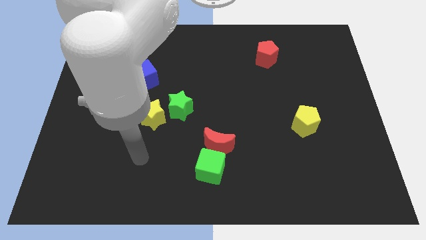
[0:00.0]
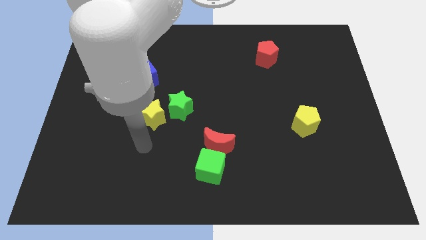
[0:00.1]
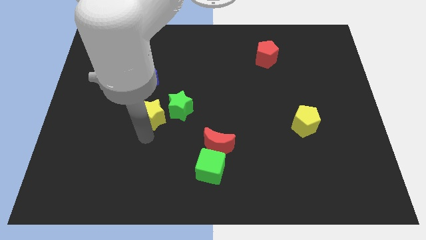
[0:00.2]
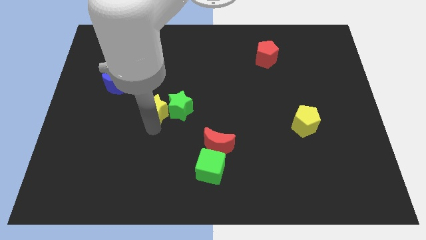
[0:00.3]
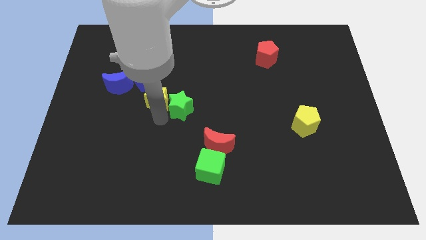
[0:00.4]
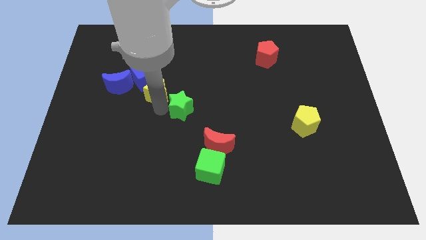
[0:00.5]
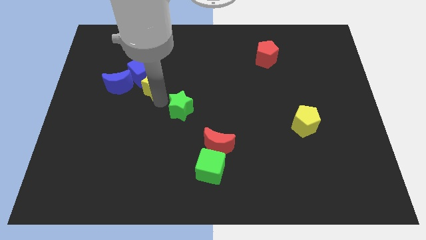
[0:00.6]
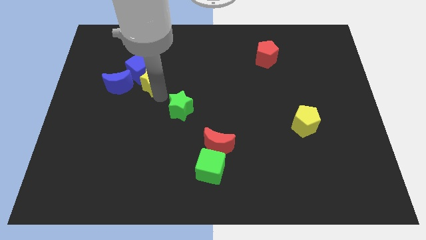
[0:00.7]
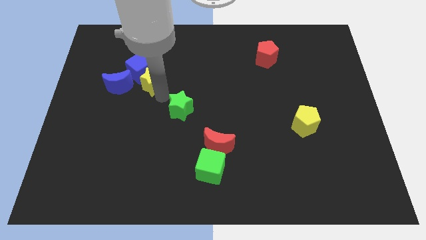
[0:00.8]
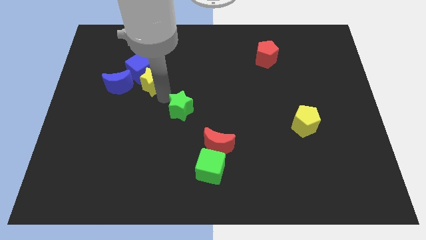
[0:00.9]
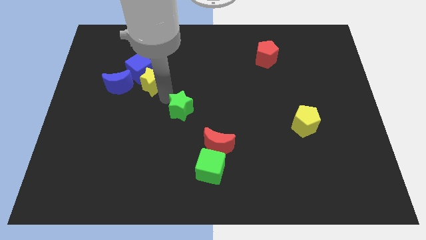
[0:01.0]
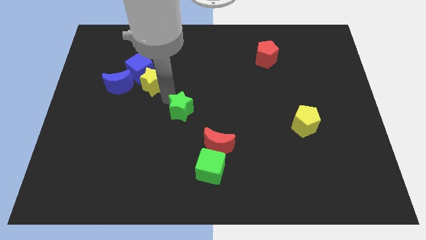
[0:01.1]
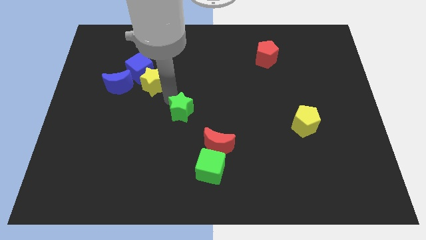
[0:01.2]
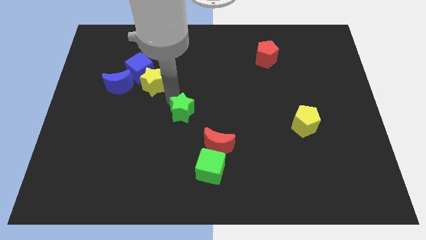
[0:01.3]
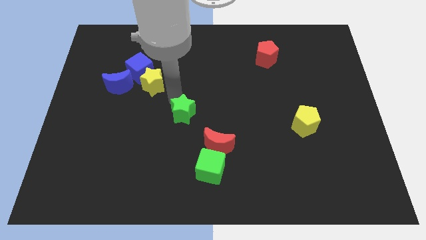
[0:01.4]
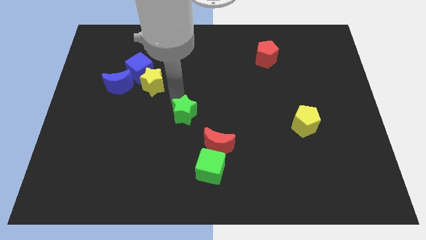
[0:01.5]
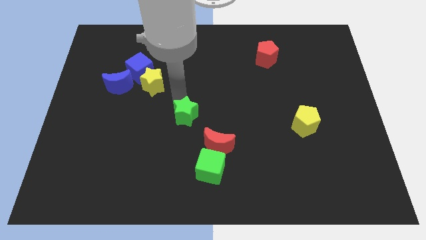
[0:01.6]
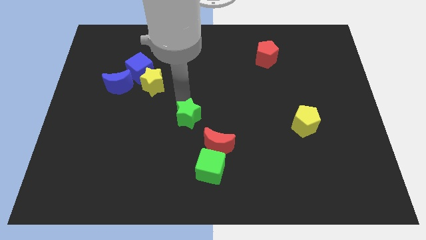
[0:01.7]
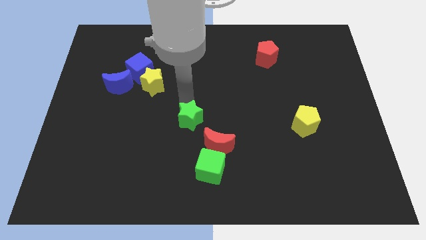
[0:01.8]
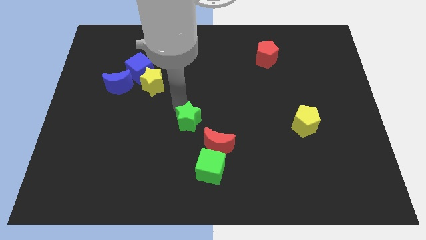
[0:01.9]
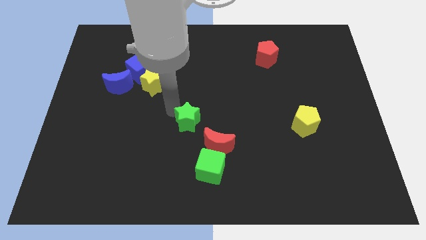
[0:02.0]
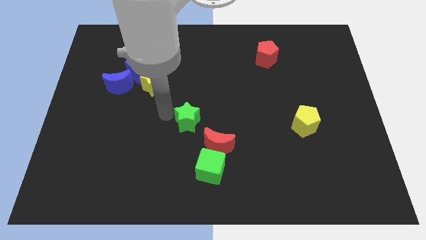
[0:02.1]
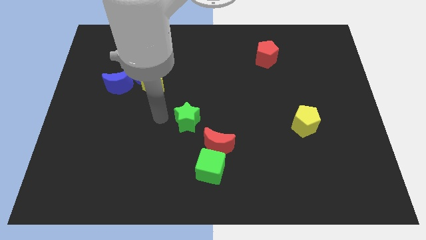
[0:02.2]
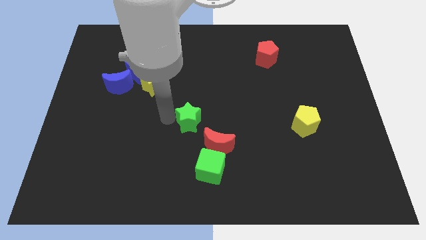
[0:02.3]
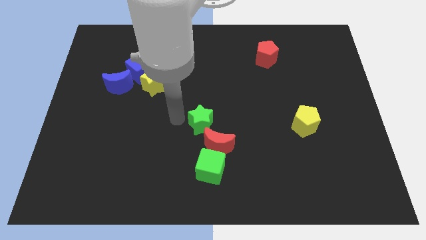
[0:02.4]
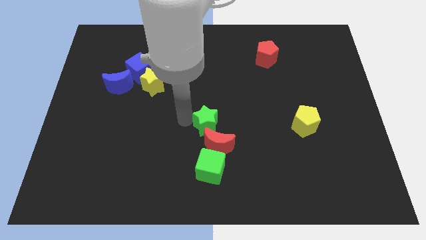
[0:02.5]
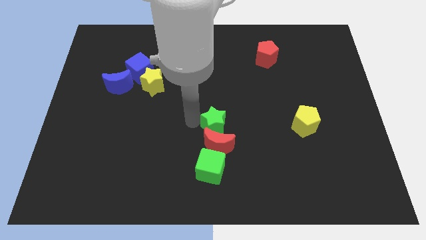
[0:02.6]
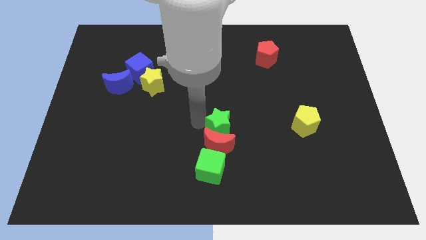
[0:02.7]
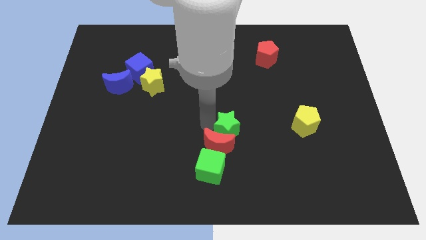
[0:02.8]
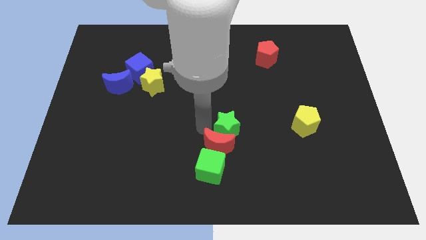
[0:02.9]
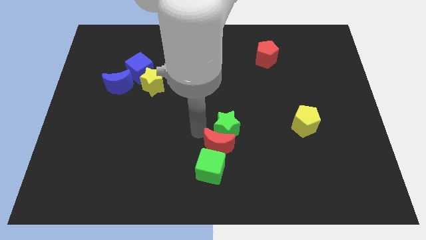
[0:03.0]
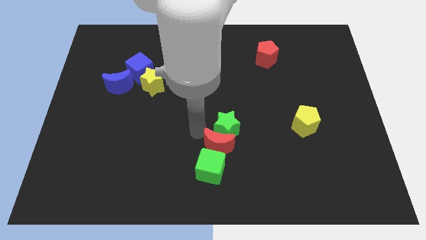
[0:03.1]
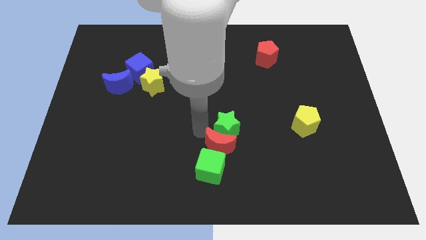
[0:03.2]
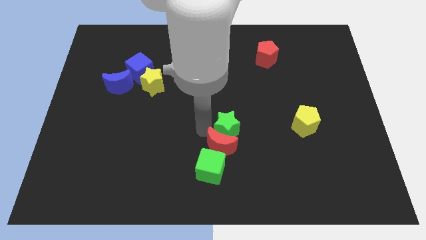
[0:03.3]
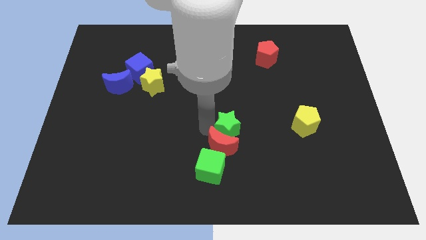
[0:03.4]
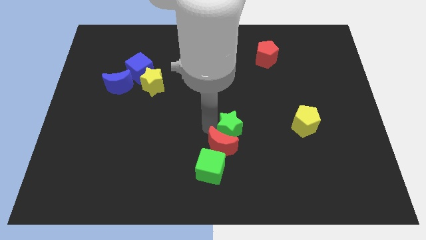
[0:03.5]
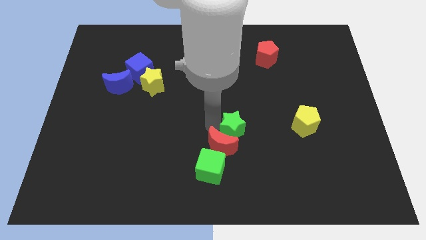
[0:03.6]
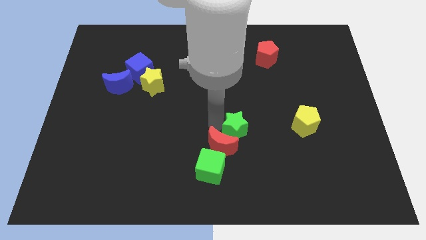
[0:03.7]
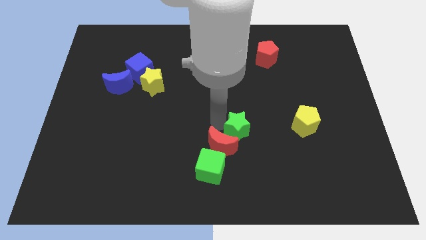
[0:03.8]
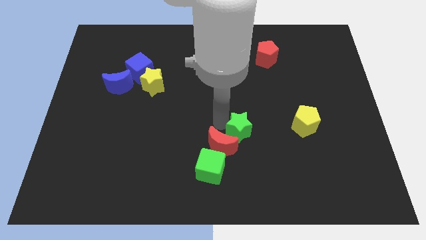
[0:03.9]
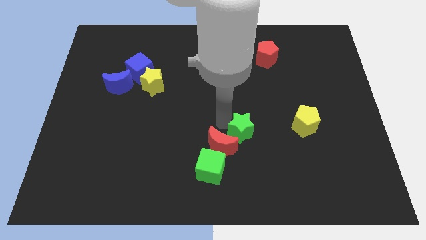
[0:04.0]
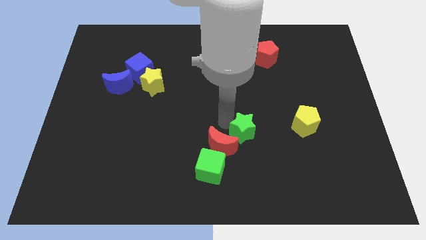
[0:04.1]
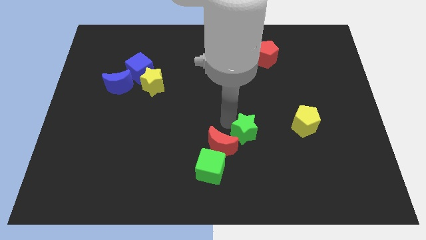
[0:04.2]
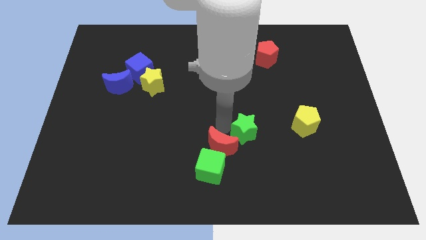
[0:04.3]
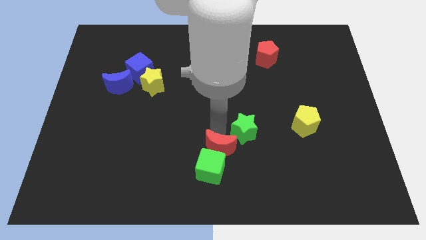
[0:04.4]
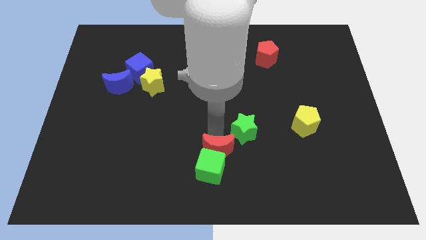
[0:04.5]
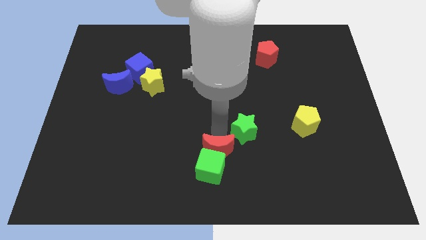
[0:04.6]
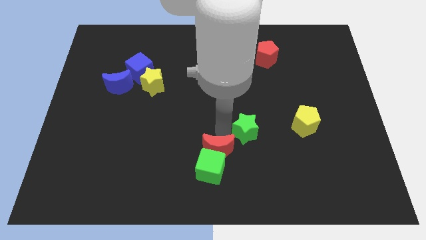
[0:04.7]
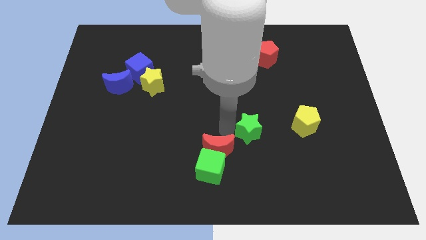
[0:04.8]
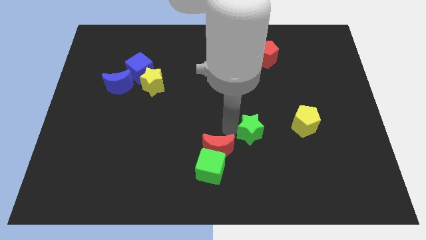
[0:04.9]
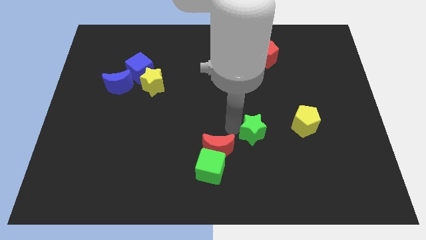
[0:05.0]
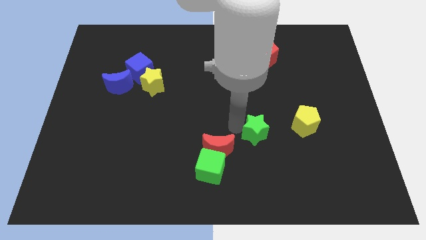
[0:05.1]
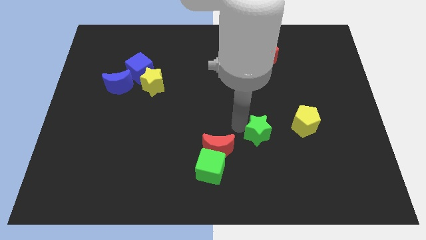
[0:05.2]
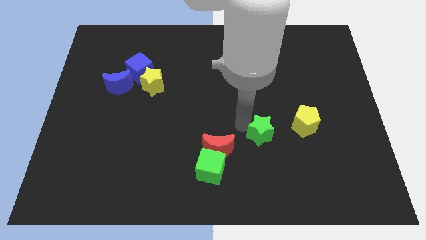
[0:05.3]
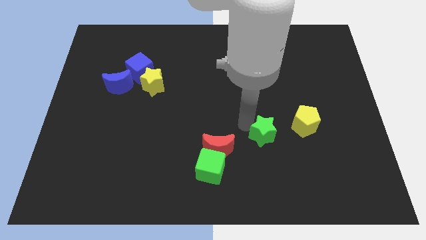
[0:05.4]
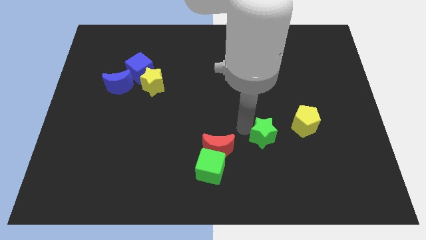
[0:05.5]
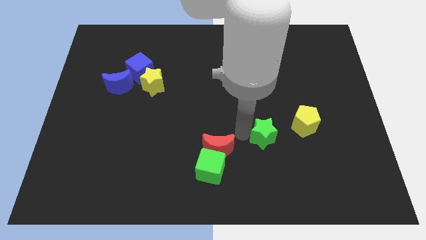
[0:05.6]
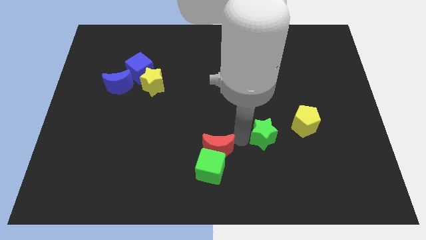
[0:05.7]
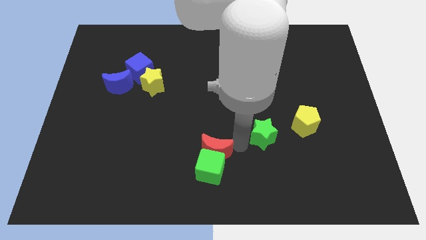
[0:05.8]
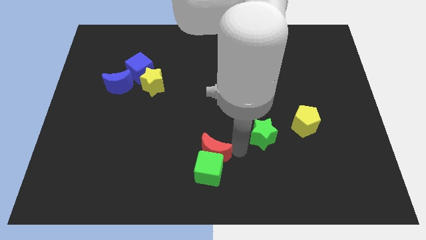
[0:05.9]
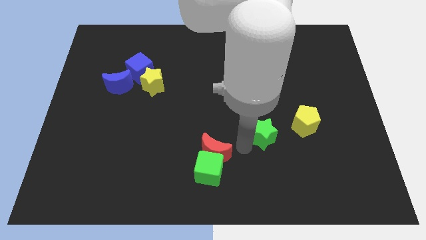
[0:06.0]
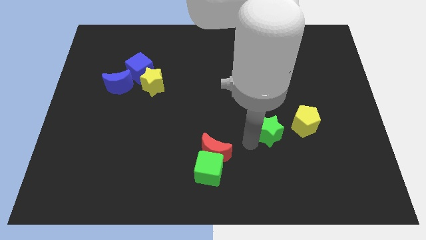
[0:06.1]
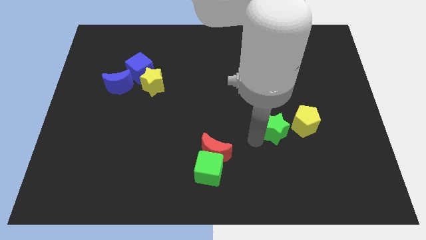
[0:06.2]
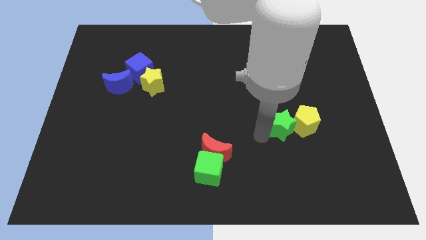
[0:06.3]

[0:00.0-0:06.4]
move the green star to the yellow pentagon
